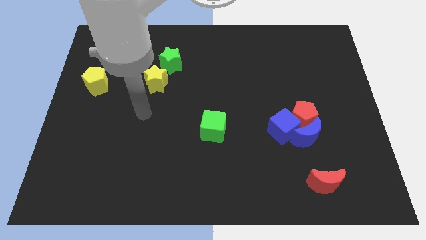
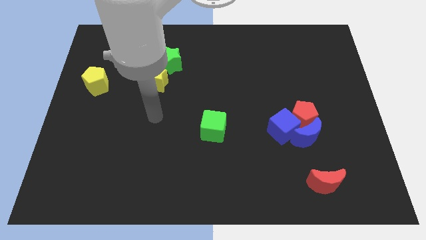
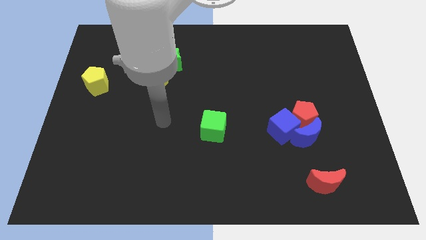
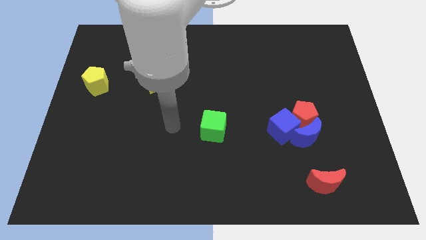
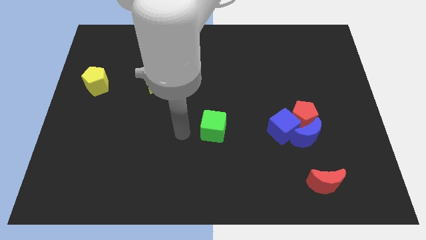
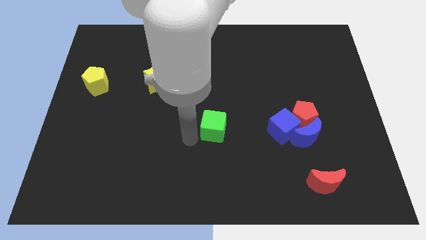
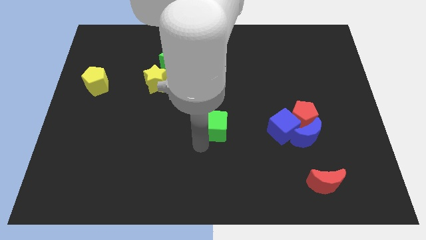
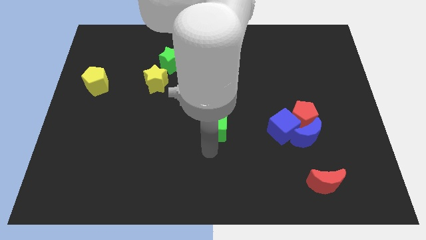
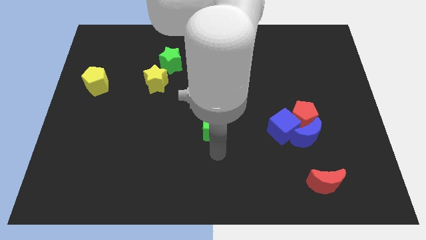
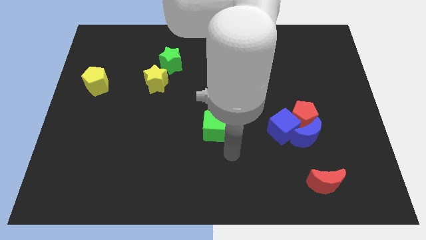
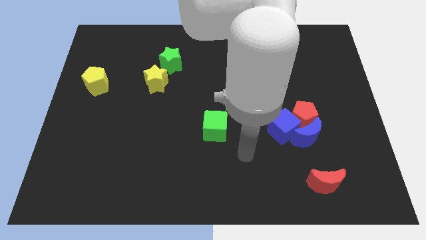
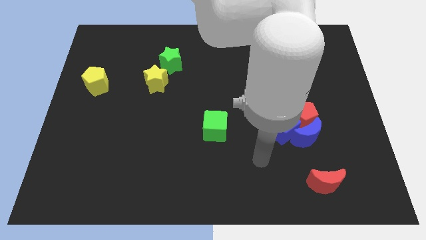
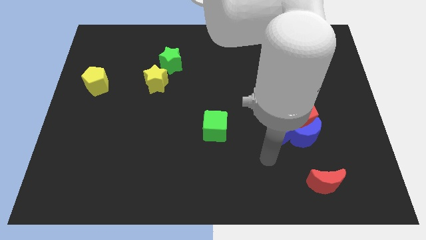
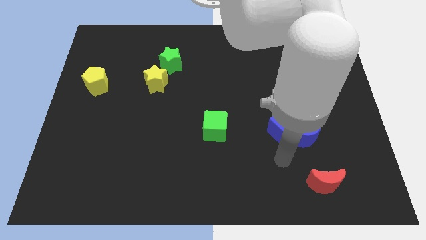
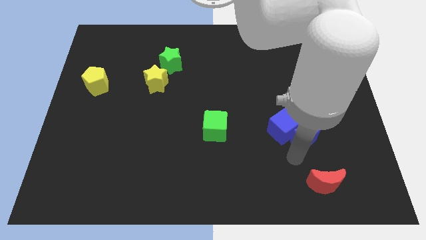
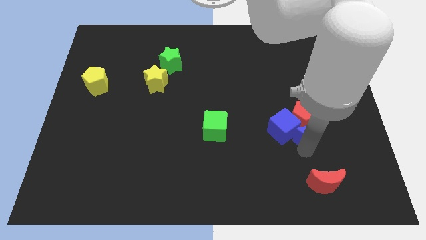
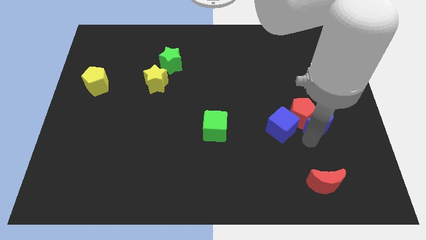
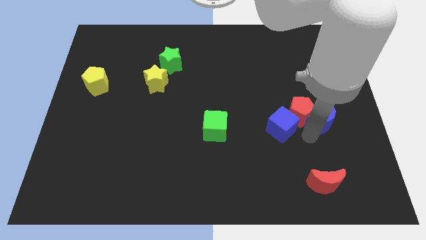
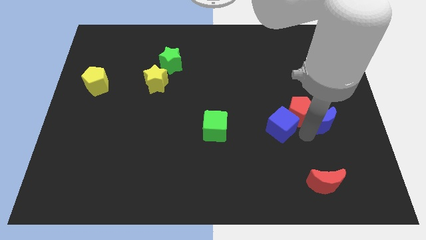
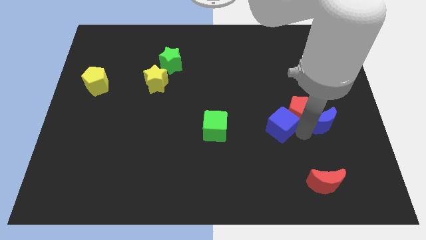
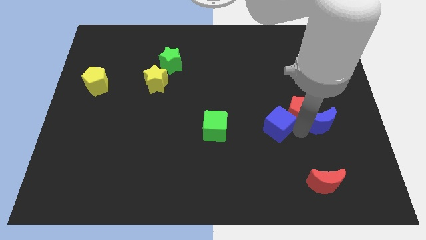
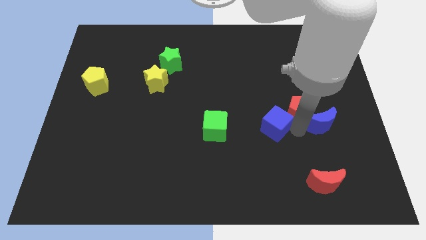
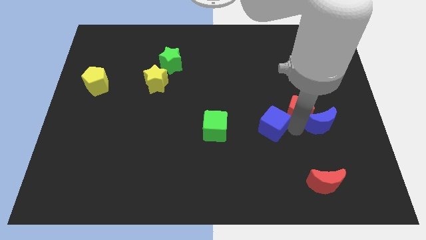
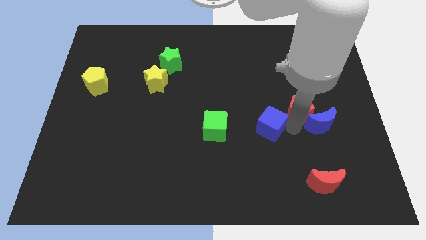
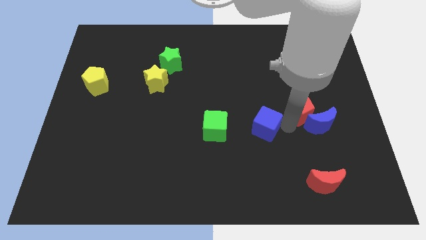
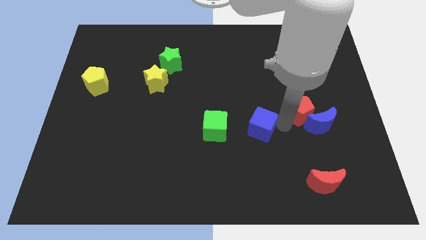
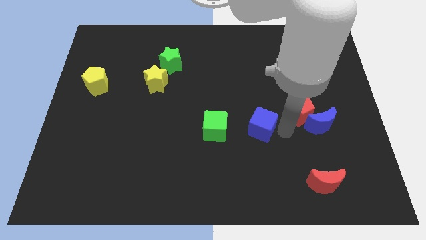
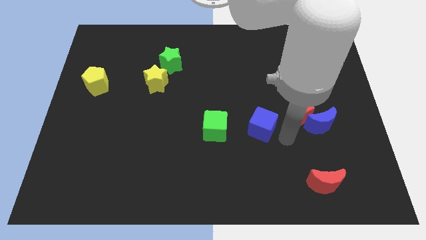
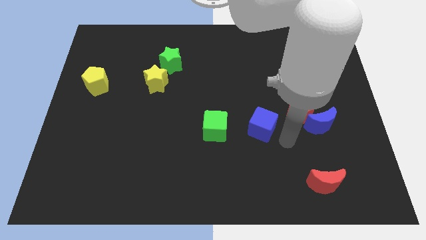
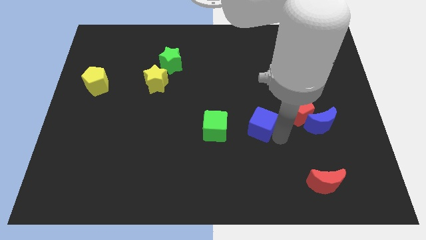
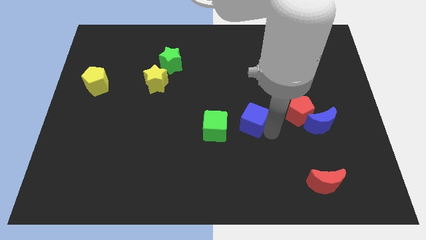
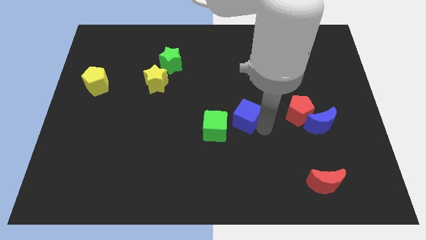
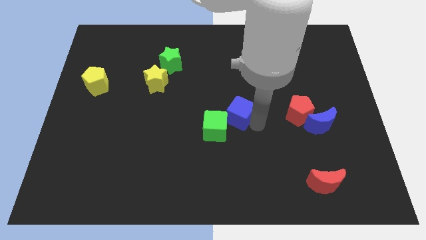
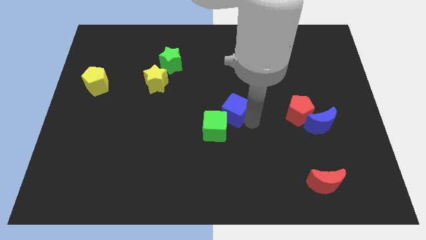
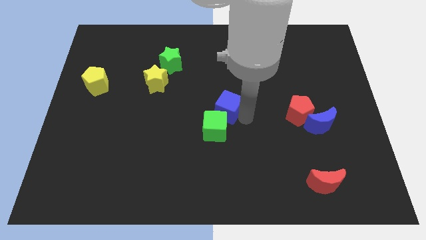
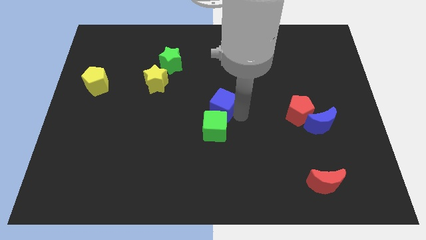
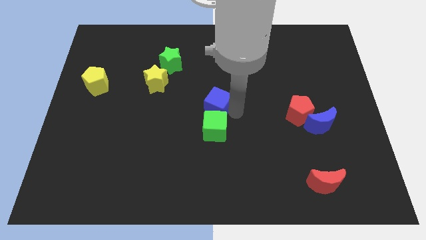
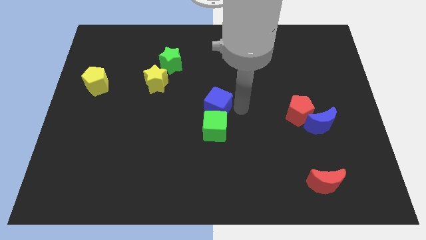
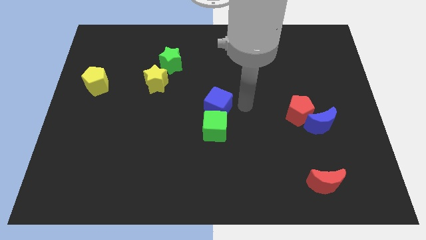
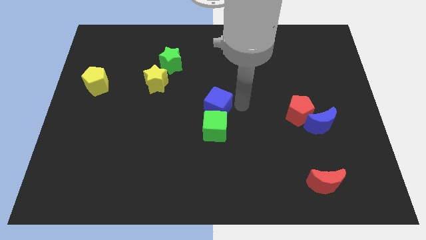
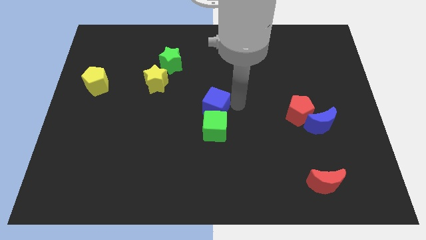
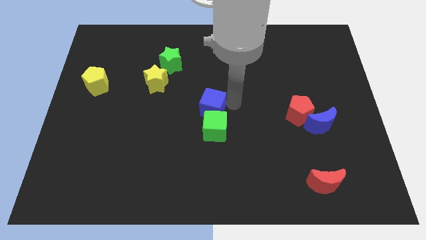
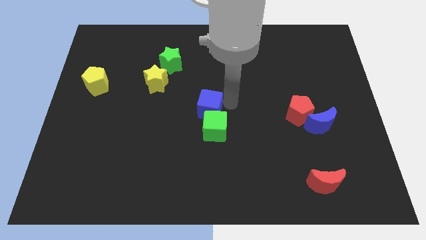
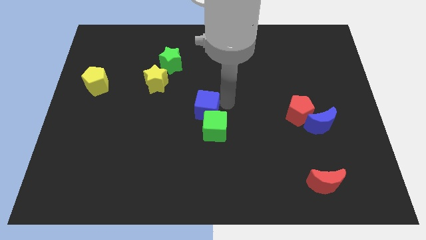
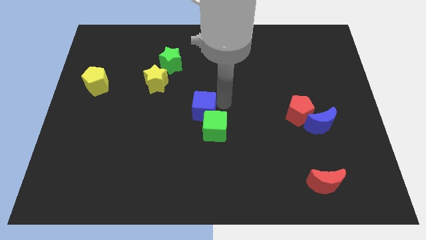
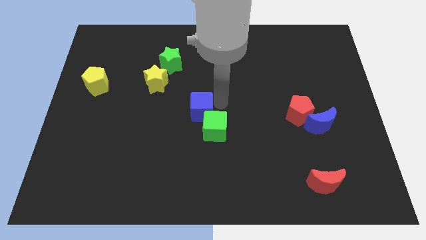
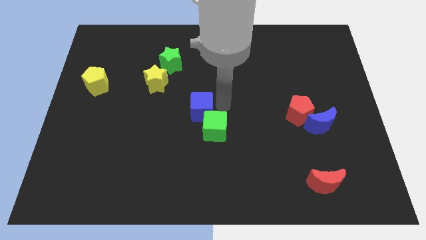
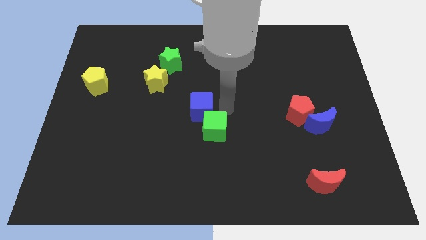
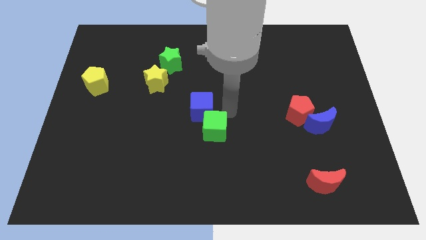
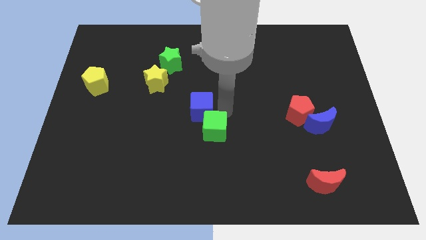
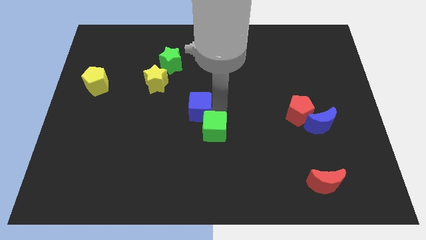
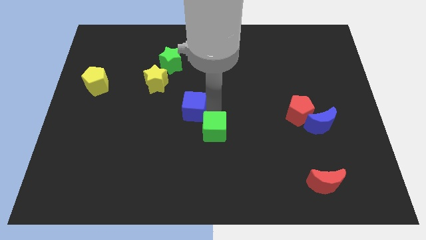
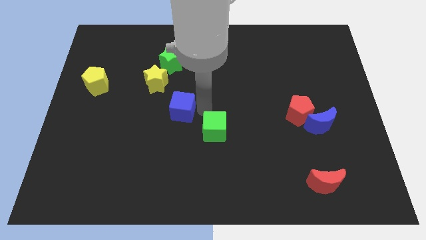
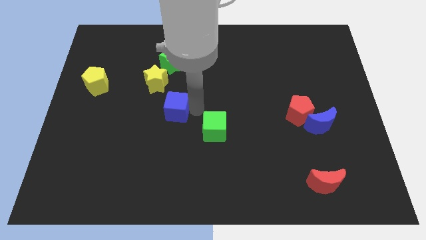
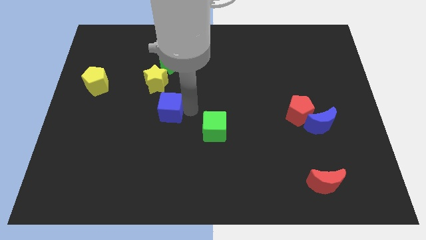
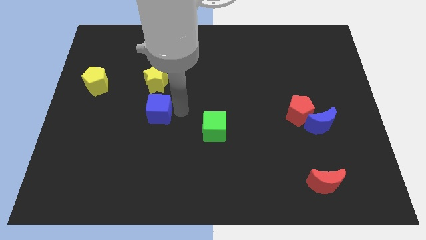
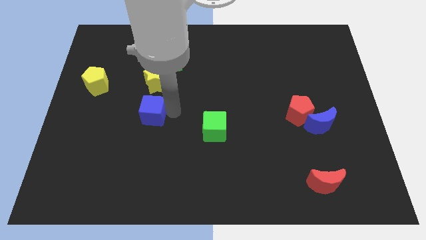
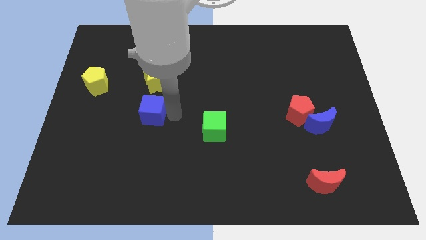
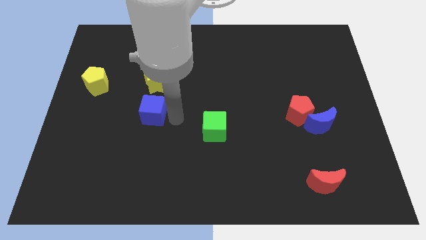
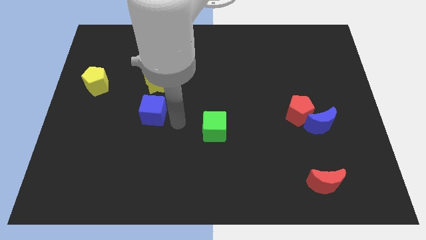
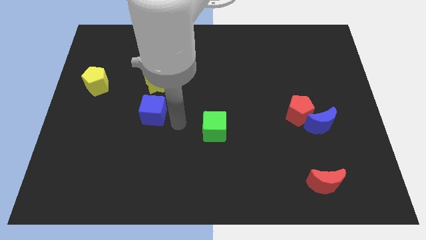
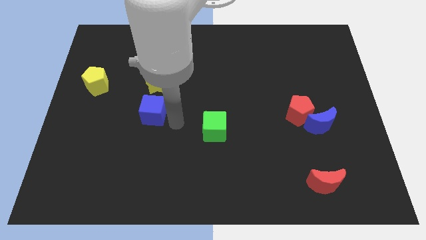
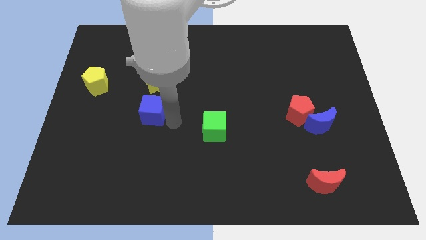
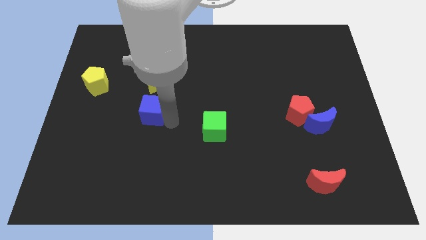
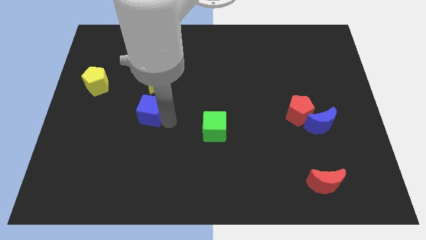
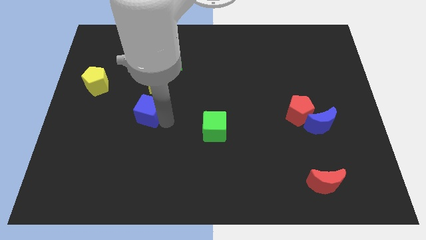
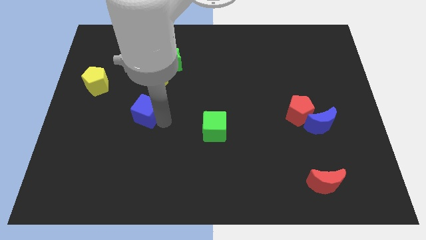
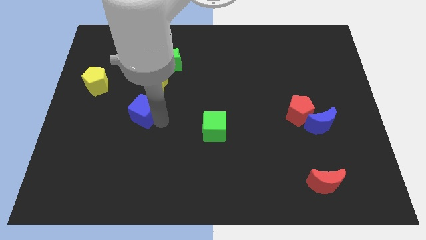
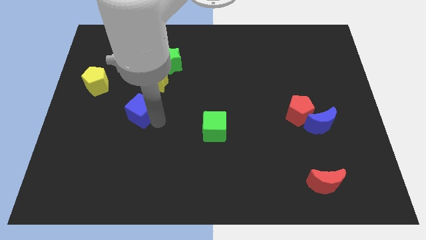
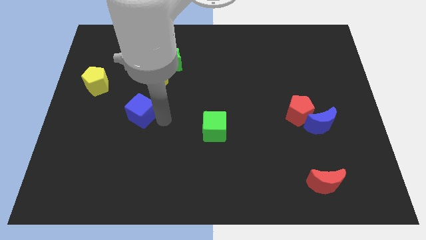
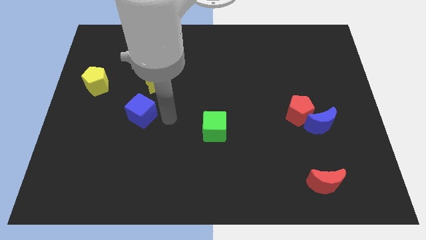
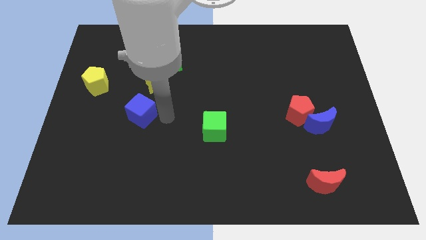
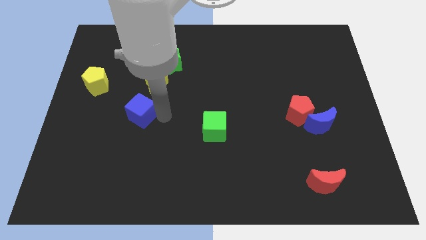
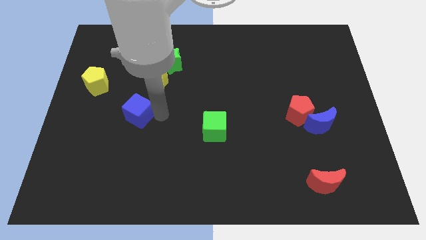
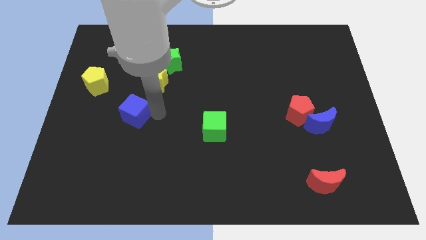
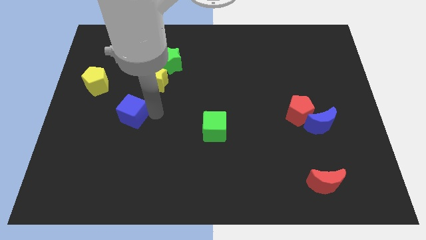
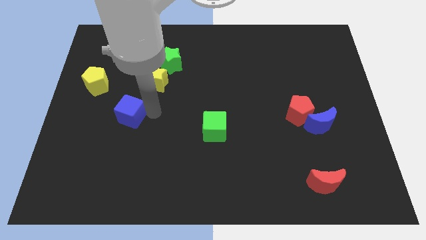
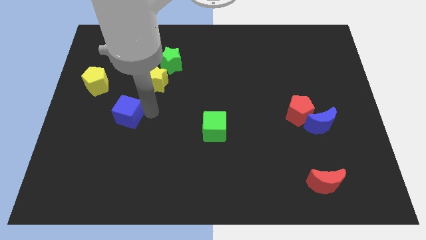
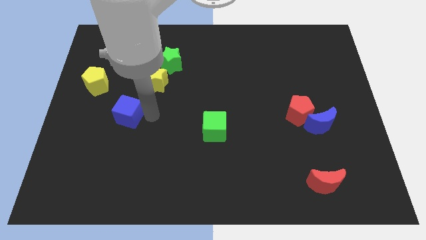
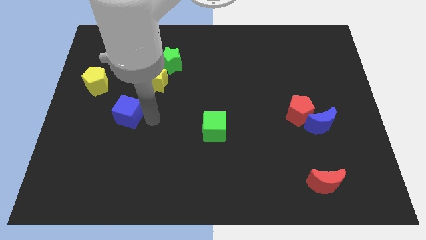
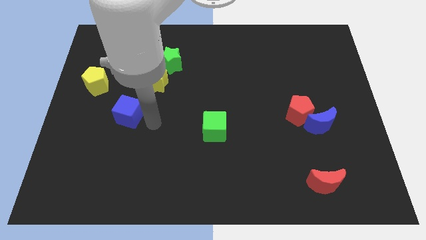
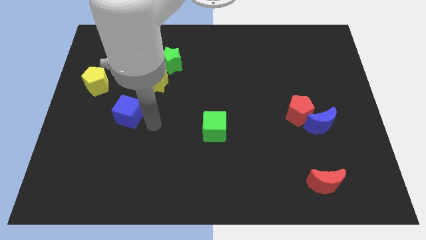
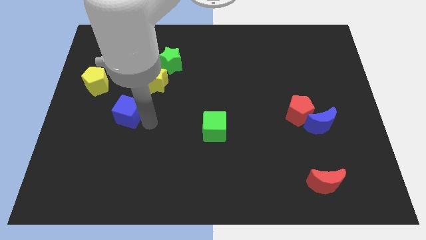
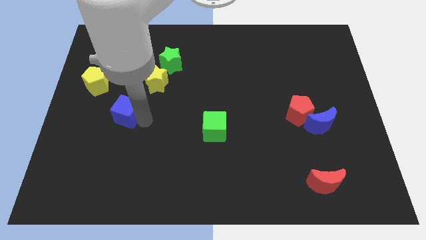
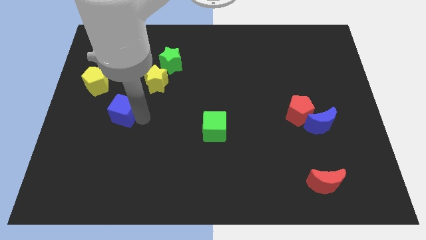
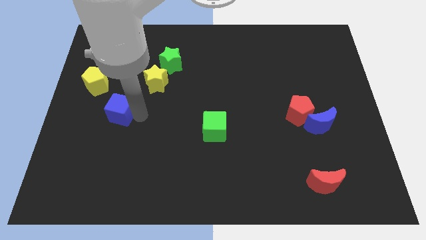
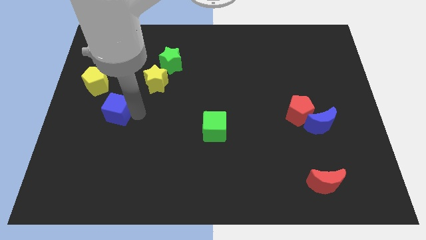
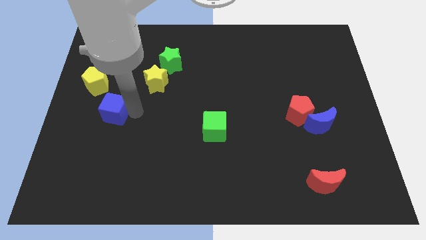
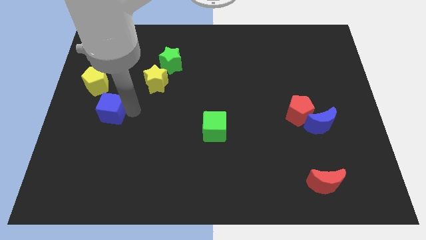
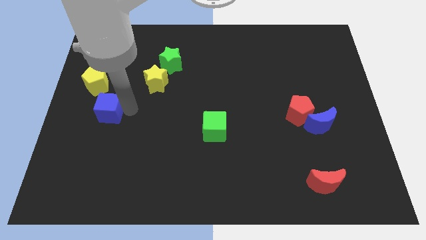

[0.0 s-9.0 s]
slide the blue cube below the yellow pentagon
